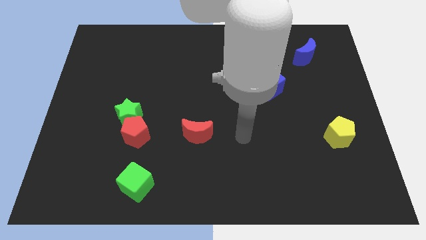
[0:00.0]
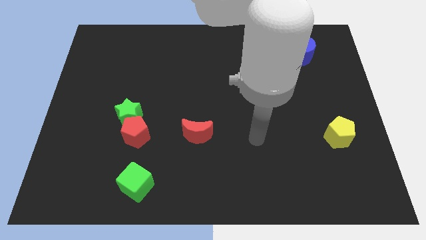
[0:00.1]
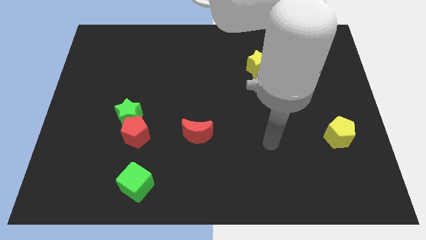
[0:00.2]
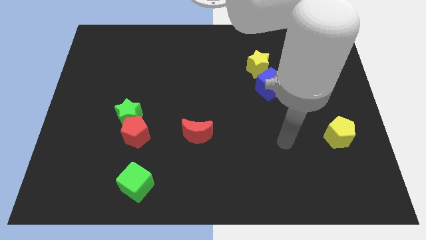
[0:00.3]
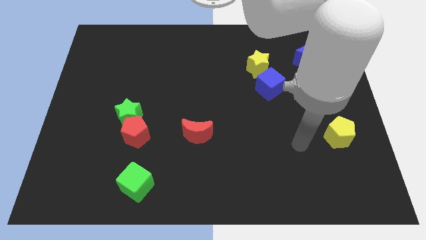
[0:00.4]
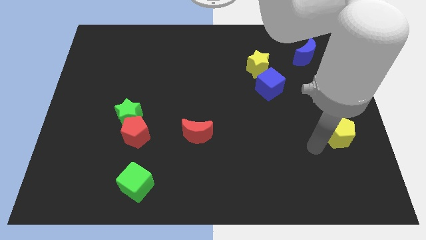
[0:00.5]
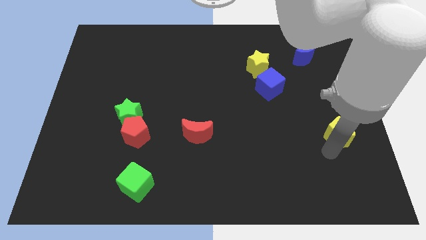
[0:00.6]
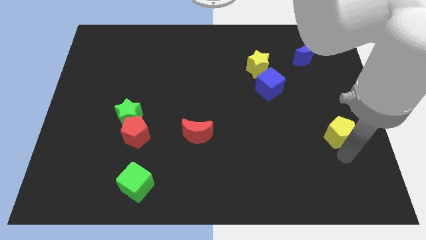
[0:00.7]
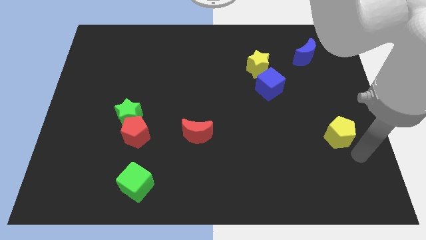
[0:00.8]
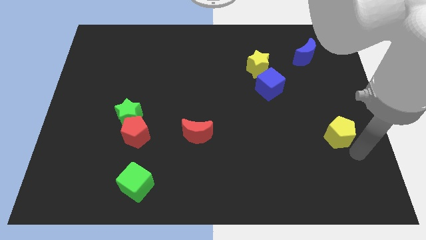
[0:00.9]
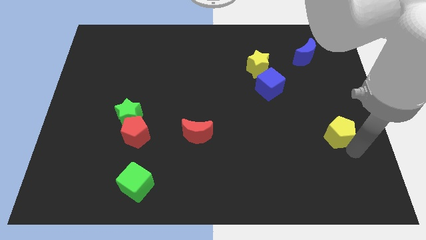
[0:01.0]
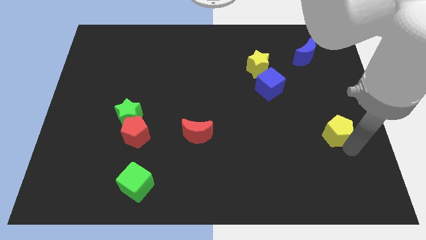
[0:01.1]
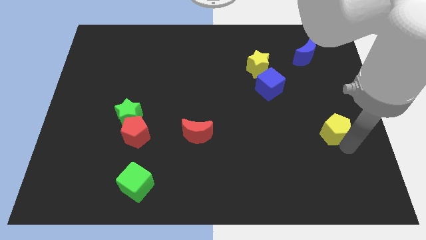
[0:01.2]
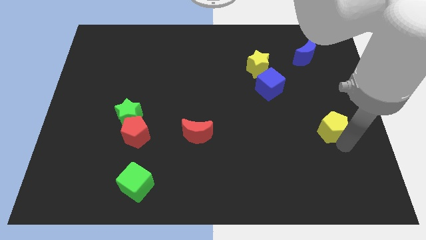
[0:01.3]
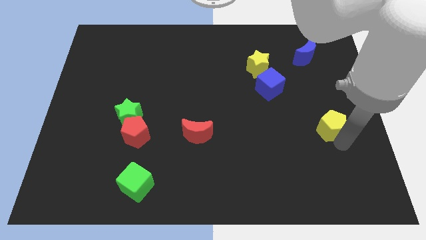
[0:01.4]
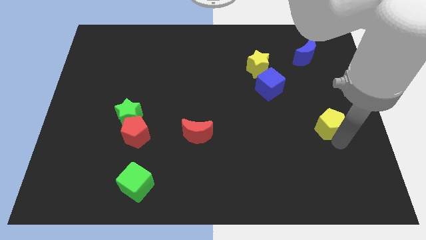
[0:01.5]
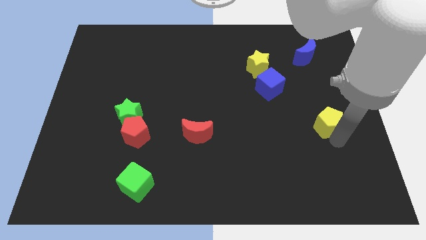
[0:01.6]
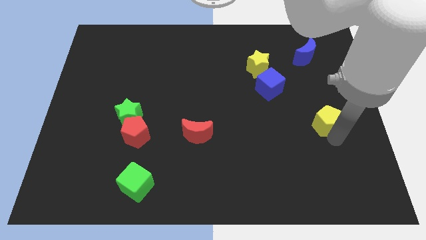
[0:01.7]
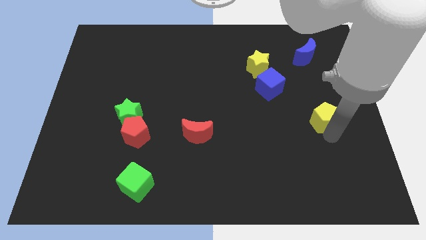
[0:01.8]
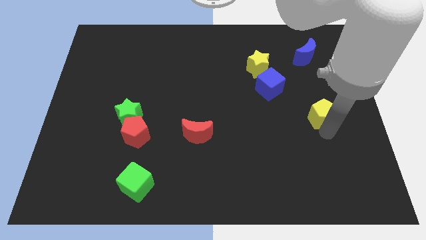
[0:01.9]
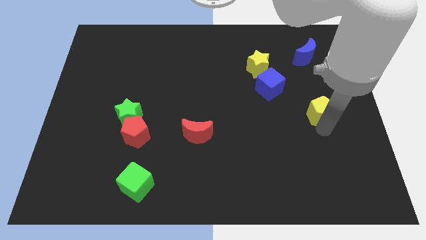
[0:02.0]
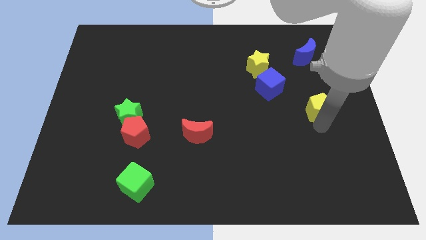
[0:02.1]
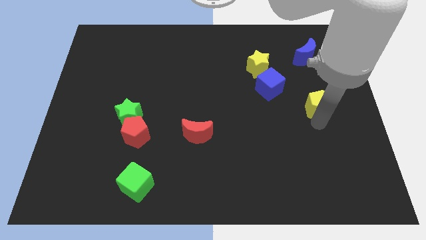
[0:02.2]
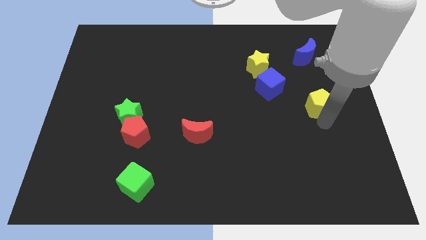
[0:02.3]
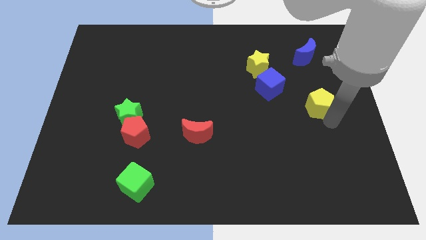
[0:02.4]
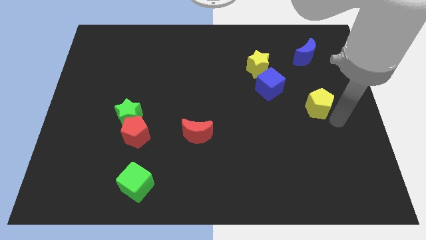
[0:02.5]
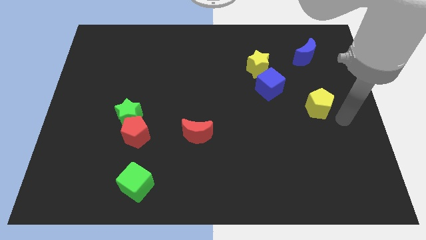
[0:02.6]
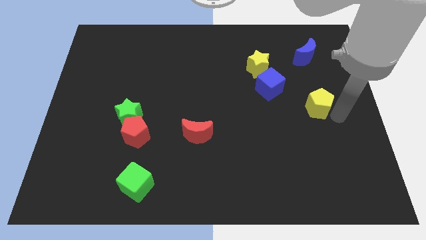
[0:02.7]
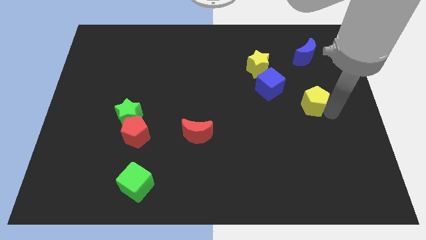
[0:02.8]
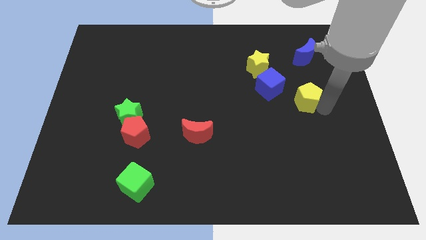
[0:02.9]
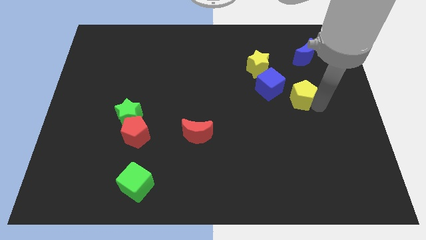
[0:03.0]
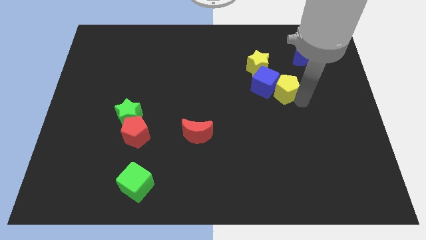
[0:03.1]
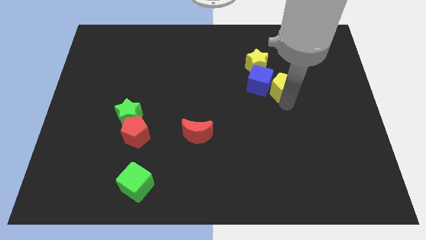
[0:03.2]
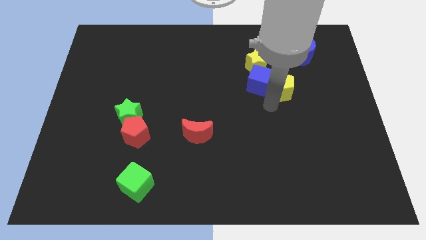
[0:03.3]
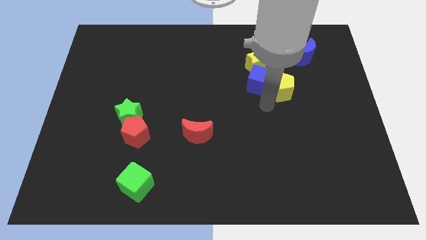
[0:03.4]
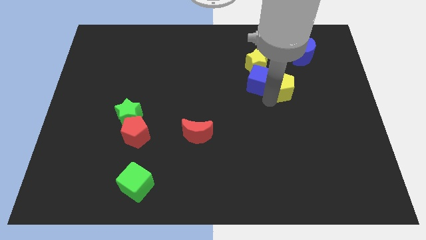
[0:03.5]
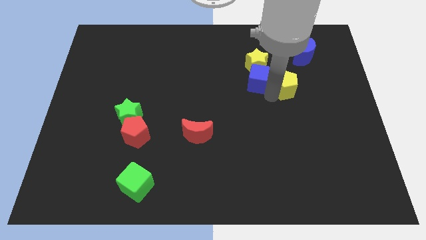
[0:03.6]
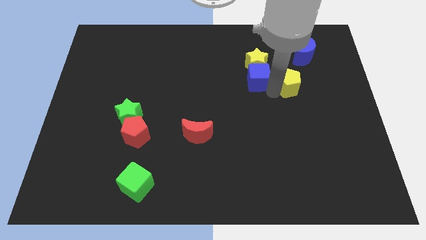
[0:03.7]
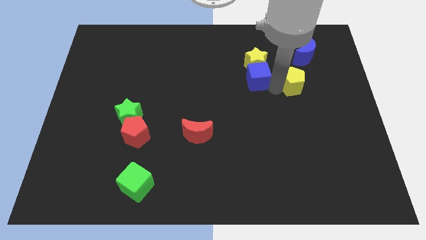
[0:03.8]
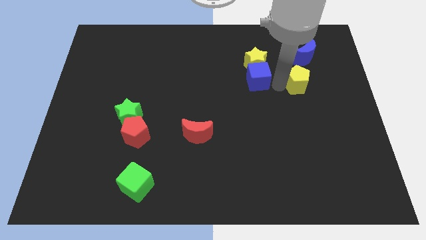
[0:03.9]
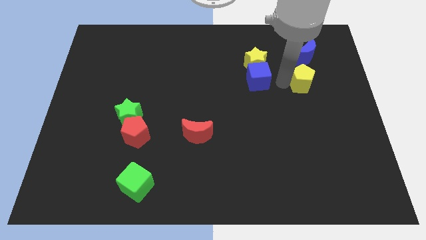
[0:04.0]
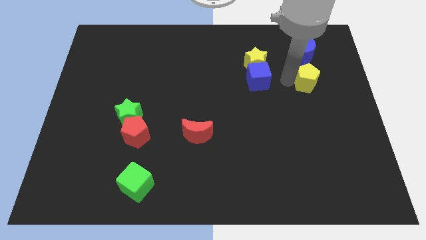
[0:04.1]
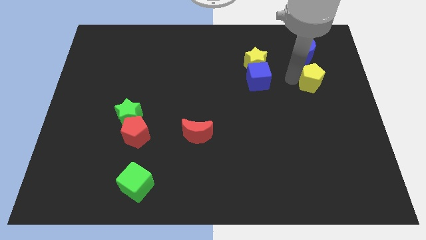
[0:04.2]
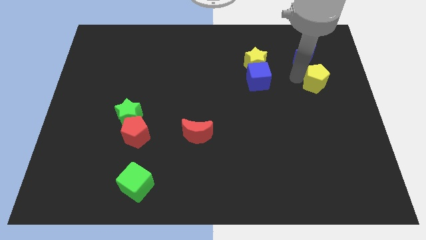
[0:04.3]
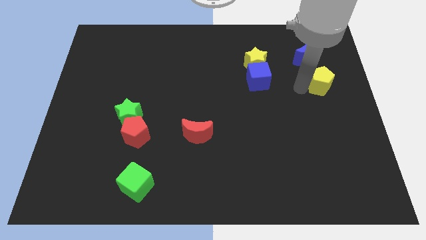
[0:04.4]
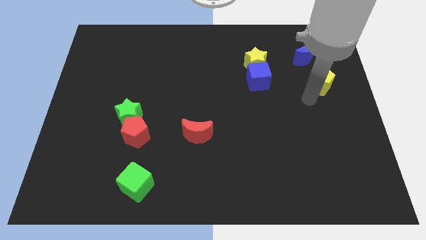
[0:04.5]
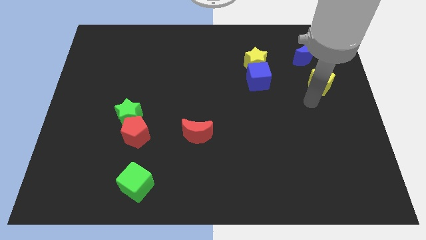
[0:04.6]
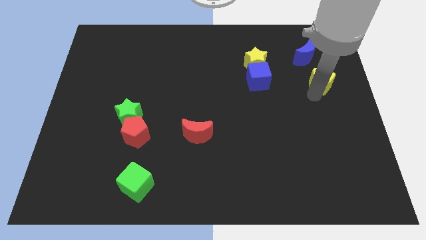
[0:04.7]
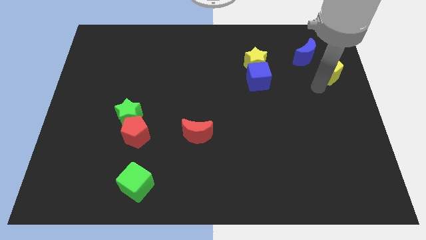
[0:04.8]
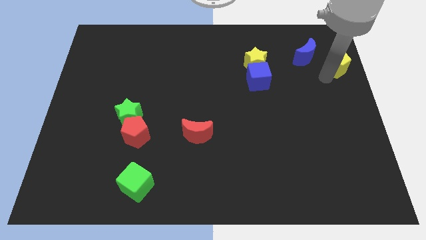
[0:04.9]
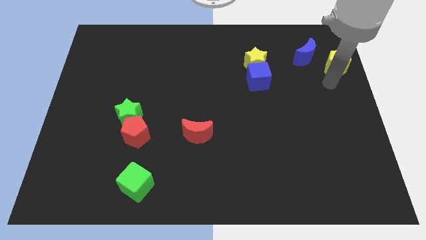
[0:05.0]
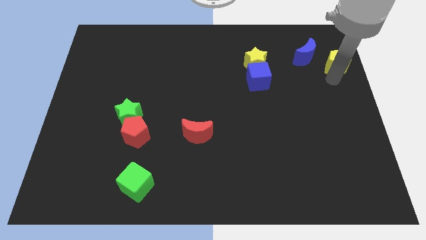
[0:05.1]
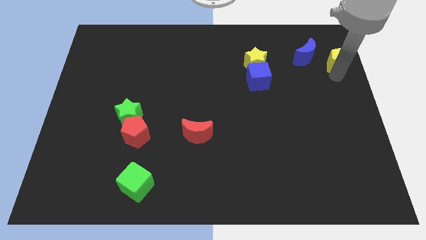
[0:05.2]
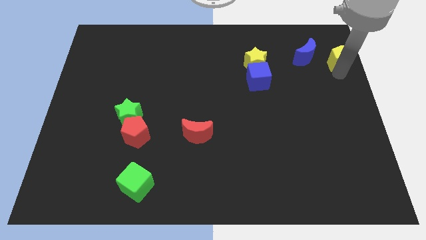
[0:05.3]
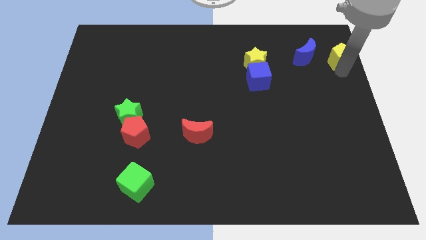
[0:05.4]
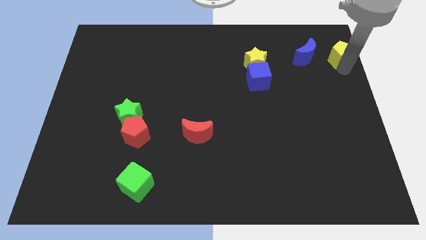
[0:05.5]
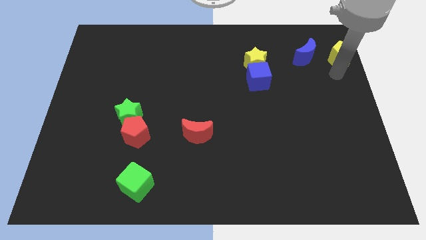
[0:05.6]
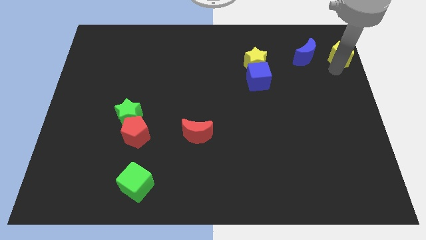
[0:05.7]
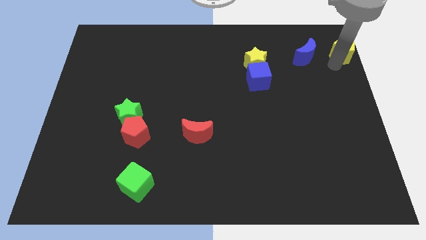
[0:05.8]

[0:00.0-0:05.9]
put the yellow pentagon to the top right

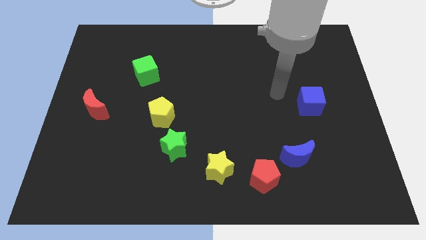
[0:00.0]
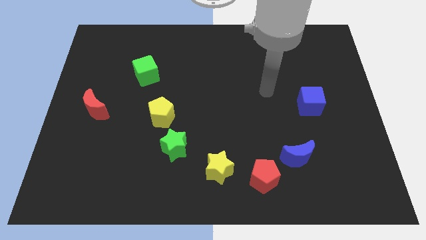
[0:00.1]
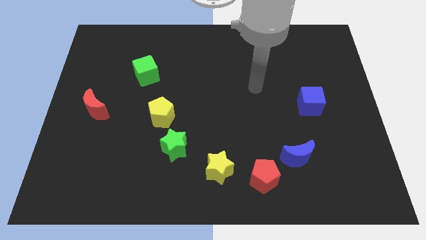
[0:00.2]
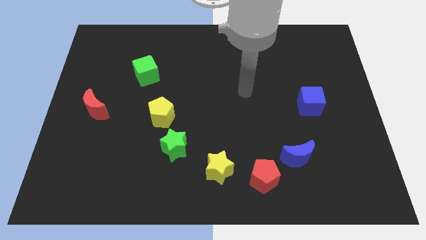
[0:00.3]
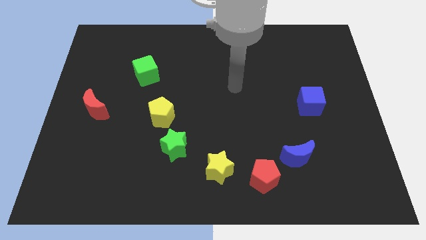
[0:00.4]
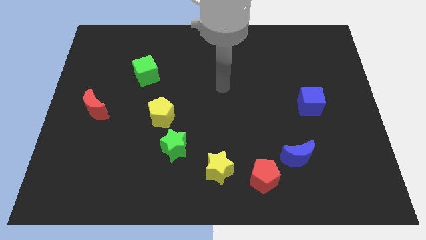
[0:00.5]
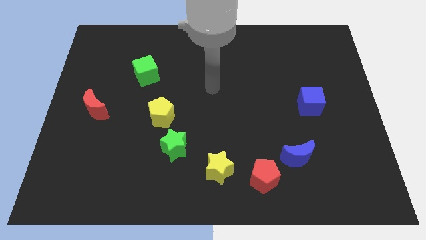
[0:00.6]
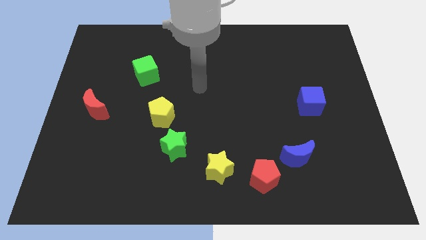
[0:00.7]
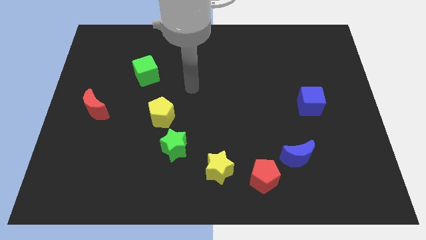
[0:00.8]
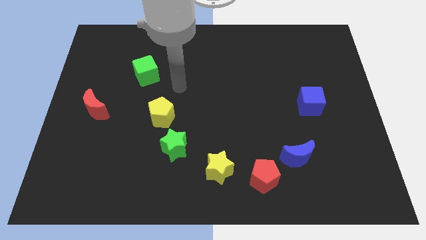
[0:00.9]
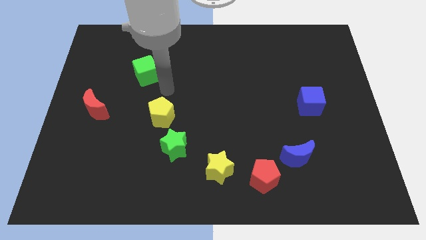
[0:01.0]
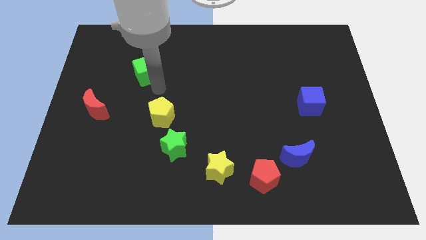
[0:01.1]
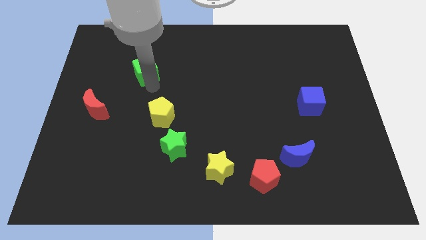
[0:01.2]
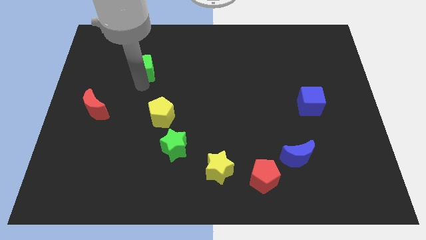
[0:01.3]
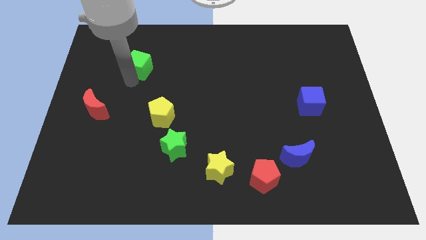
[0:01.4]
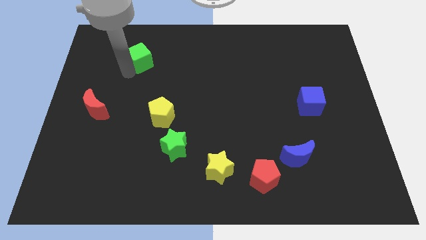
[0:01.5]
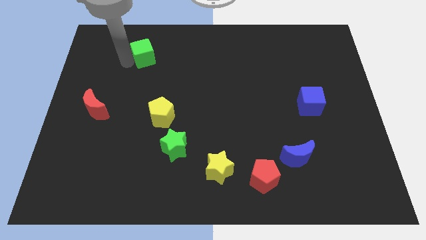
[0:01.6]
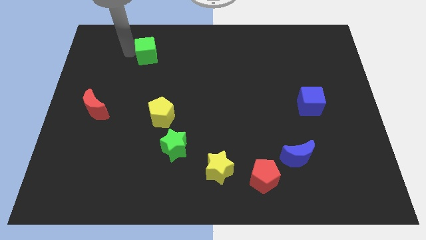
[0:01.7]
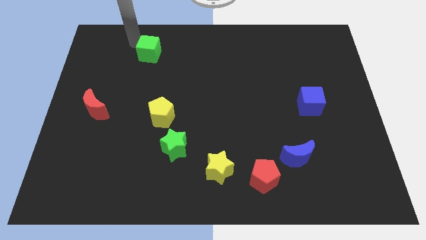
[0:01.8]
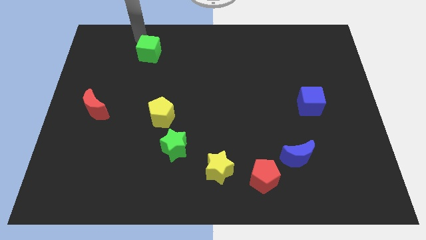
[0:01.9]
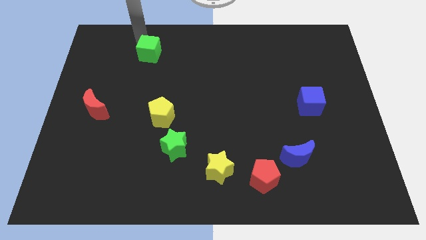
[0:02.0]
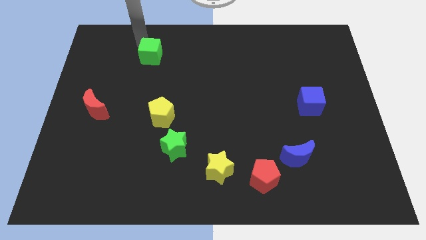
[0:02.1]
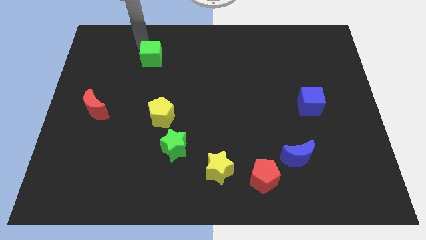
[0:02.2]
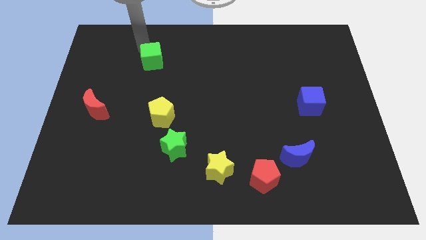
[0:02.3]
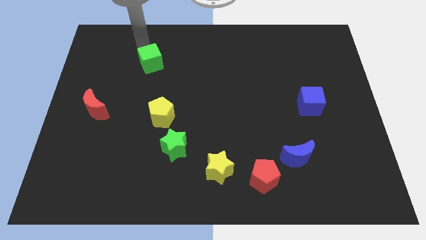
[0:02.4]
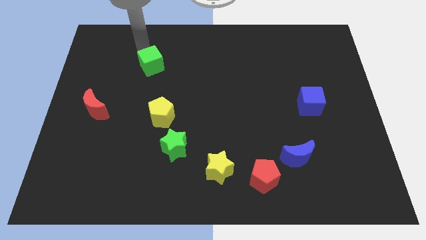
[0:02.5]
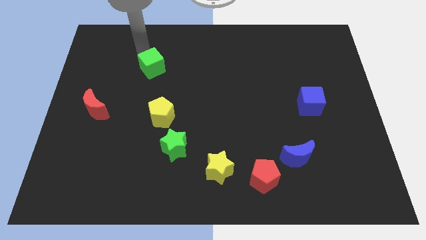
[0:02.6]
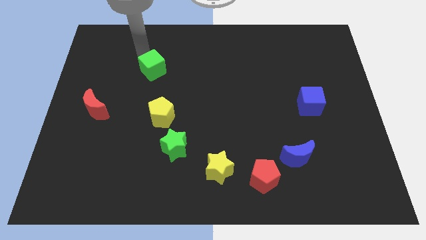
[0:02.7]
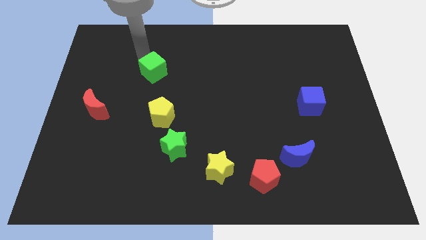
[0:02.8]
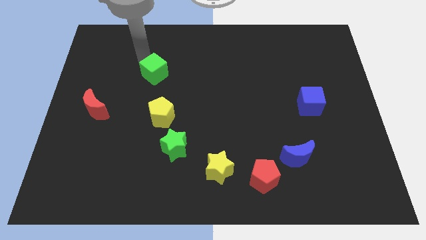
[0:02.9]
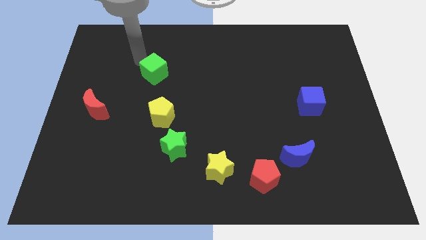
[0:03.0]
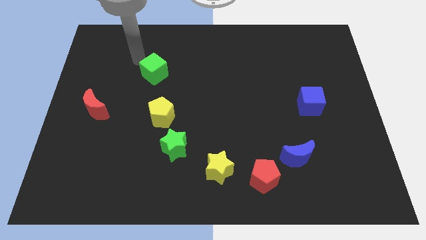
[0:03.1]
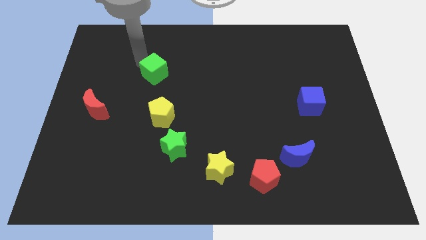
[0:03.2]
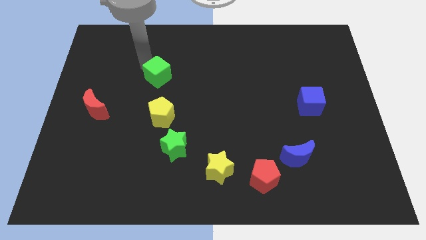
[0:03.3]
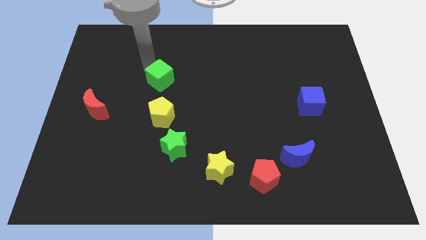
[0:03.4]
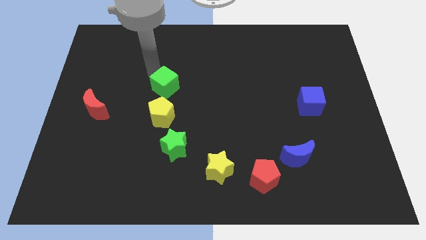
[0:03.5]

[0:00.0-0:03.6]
put the green cube to the center
